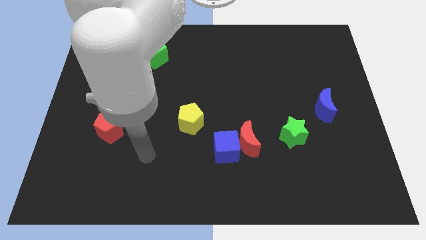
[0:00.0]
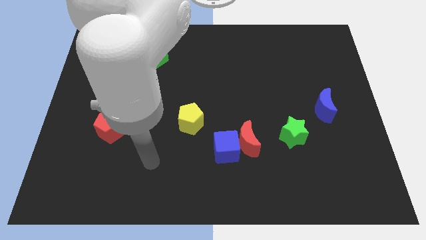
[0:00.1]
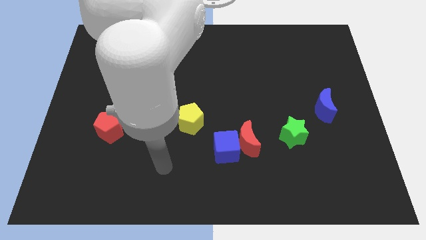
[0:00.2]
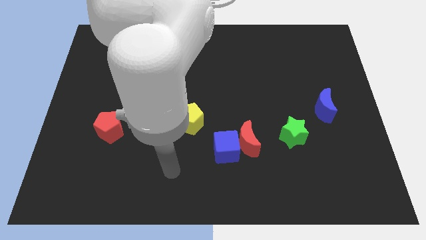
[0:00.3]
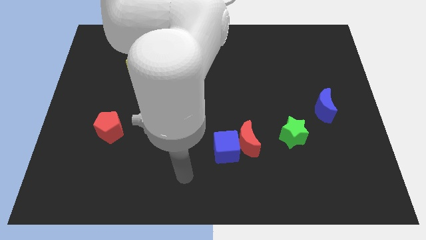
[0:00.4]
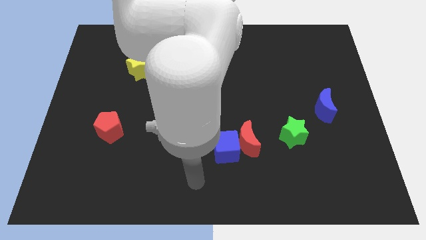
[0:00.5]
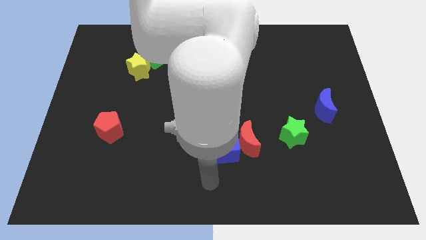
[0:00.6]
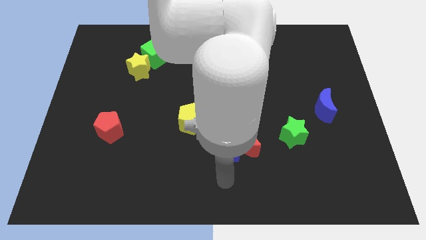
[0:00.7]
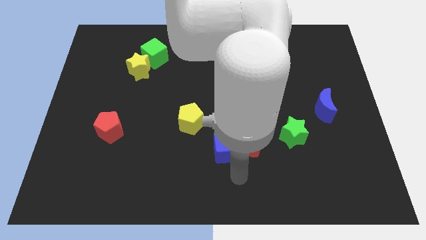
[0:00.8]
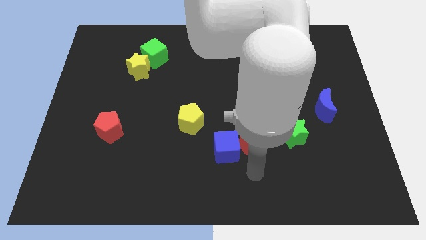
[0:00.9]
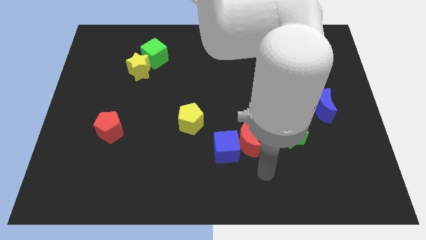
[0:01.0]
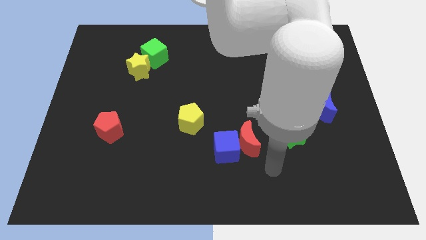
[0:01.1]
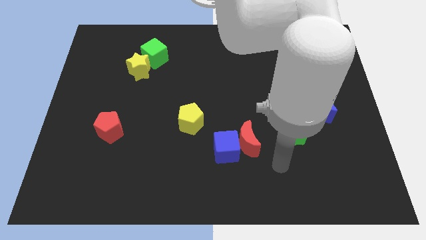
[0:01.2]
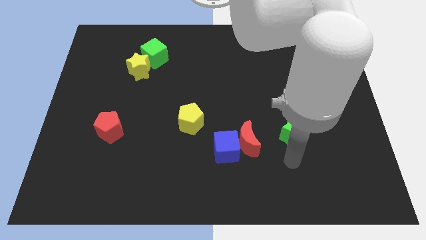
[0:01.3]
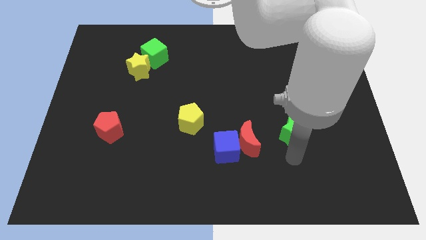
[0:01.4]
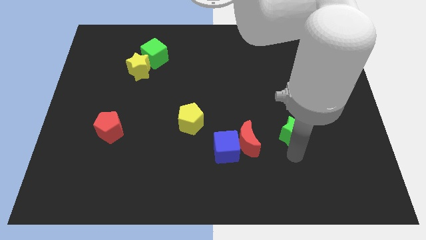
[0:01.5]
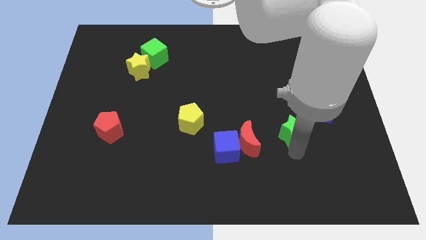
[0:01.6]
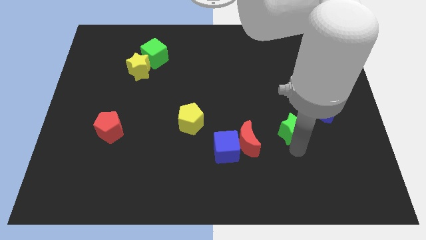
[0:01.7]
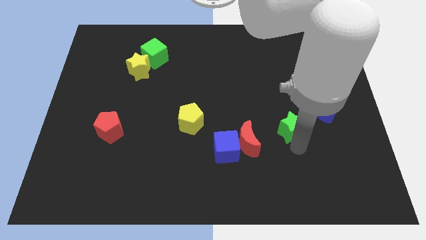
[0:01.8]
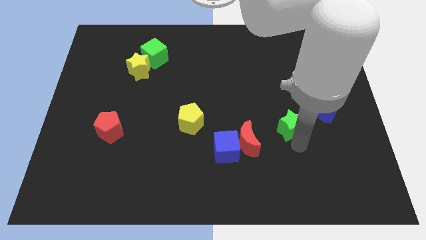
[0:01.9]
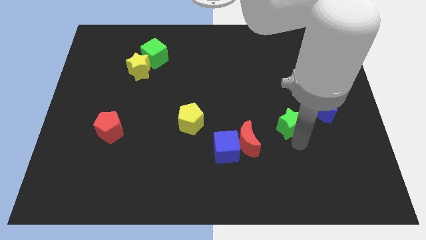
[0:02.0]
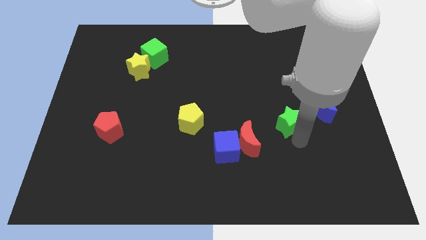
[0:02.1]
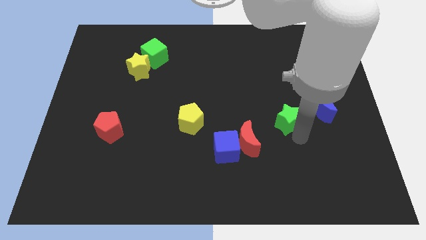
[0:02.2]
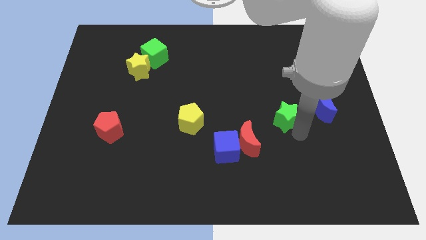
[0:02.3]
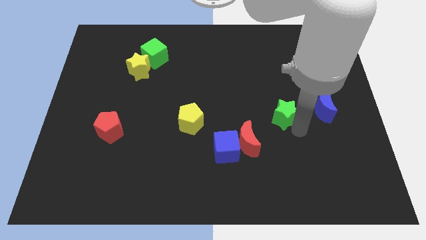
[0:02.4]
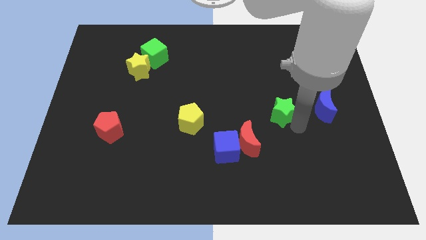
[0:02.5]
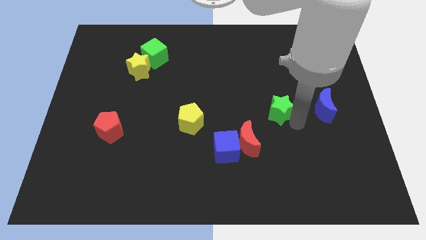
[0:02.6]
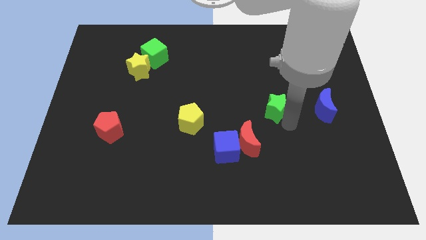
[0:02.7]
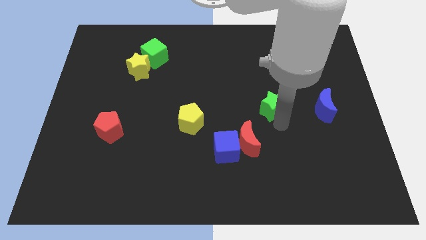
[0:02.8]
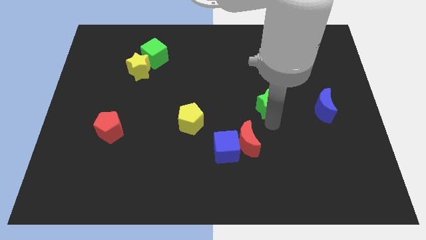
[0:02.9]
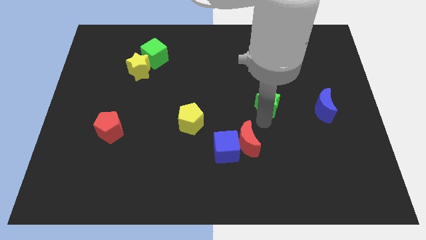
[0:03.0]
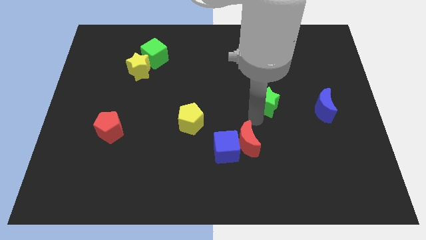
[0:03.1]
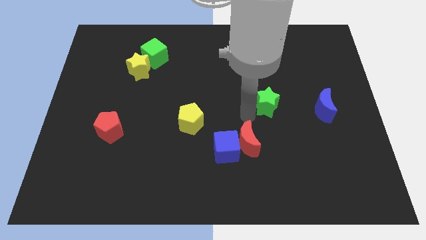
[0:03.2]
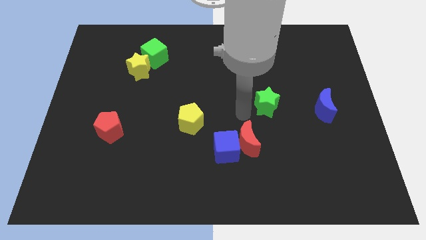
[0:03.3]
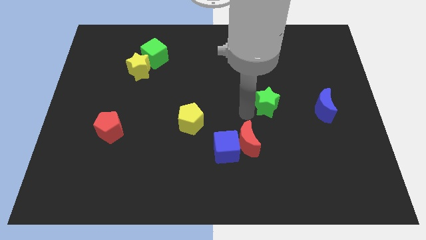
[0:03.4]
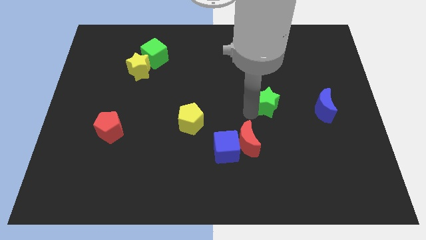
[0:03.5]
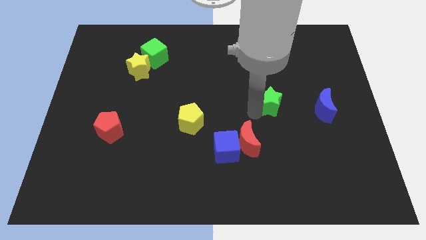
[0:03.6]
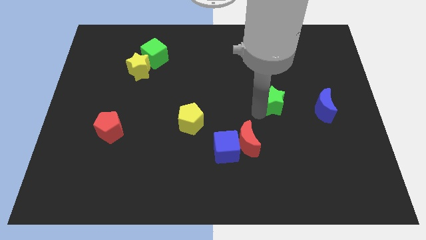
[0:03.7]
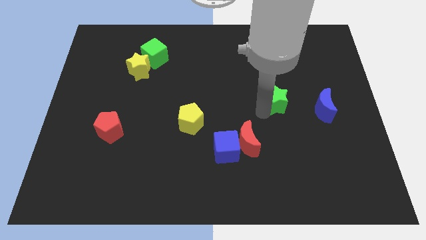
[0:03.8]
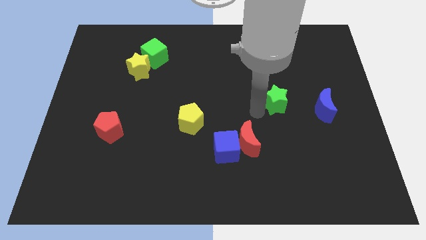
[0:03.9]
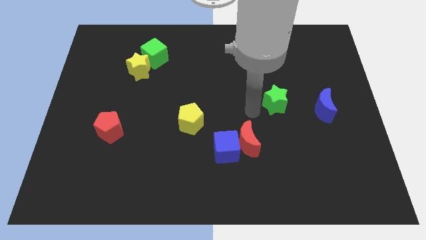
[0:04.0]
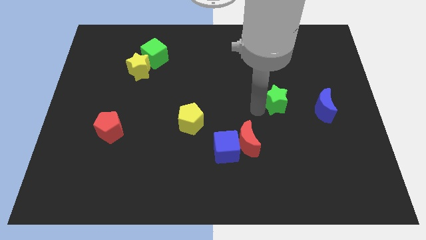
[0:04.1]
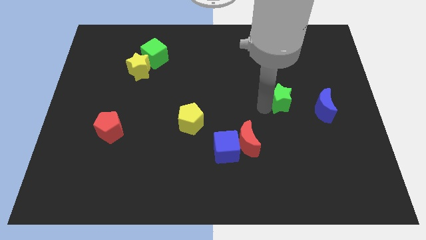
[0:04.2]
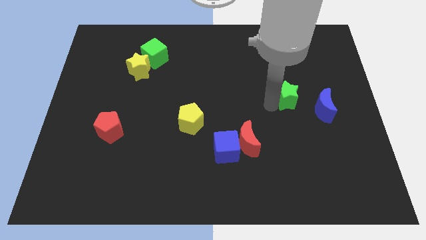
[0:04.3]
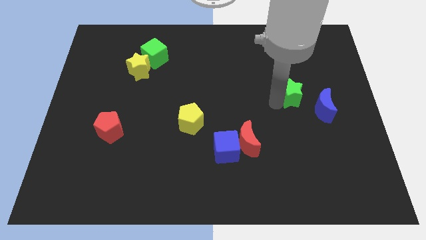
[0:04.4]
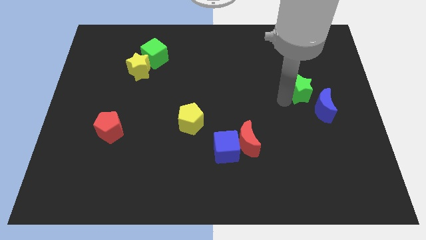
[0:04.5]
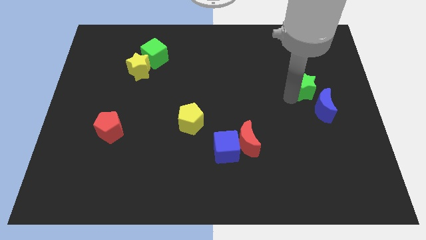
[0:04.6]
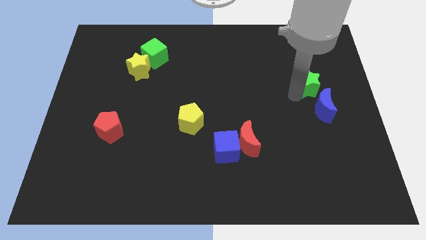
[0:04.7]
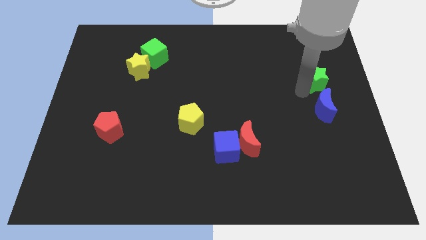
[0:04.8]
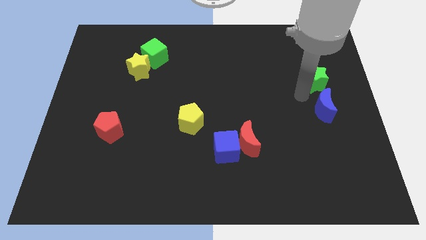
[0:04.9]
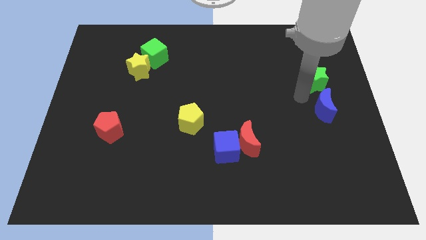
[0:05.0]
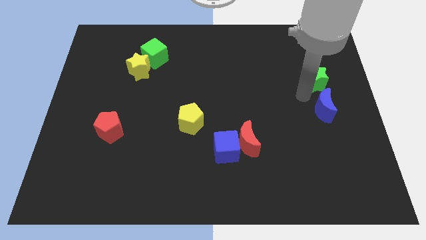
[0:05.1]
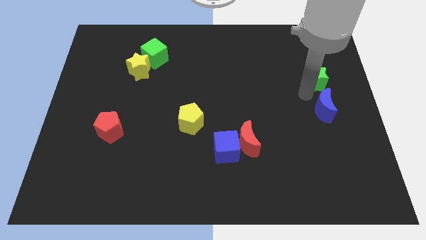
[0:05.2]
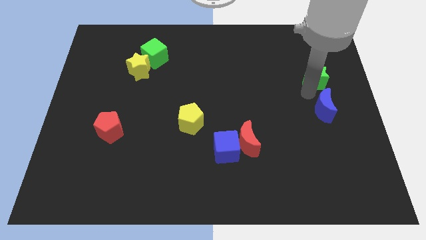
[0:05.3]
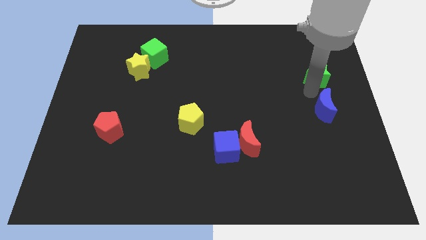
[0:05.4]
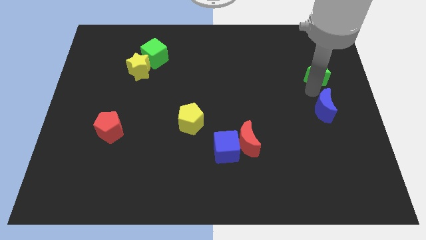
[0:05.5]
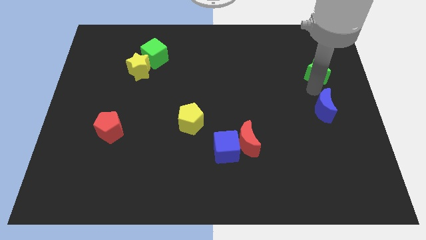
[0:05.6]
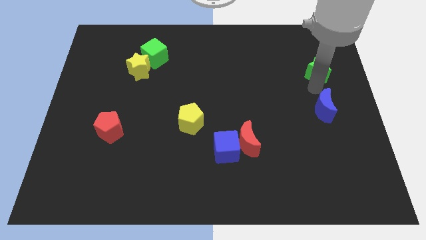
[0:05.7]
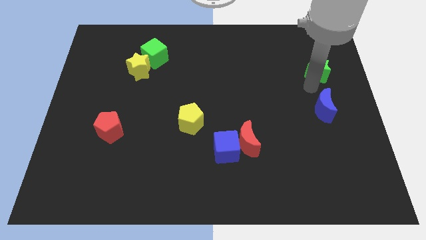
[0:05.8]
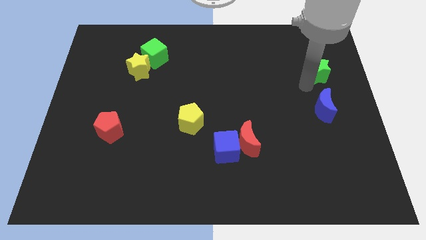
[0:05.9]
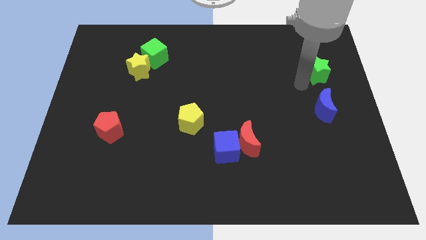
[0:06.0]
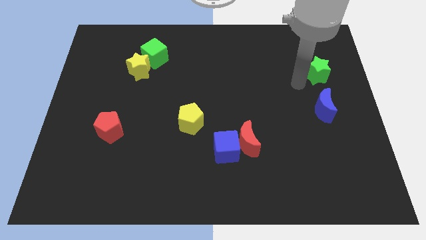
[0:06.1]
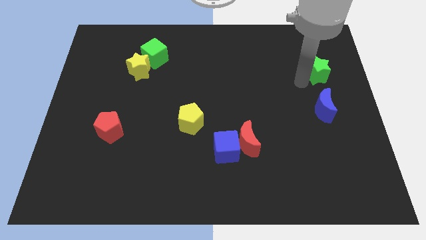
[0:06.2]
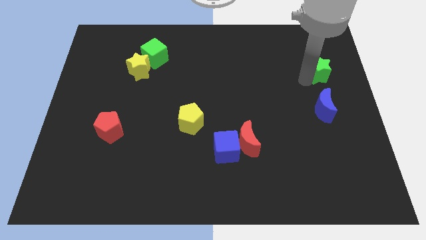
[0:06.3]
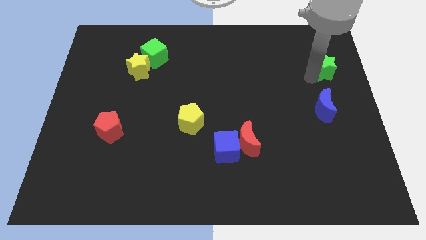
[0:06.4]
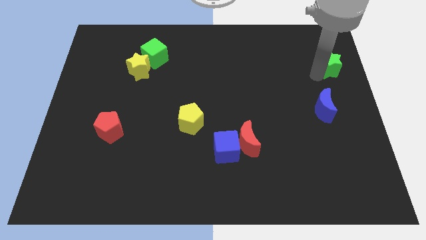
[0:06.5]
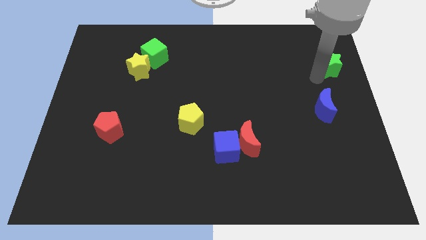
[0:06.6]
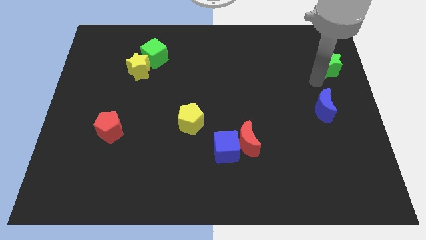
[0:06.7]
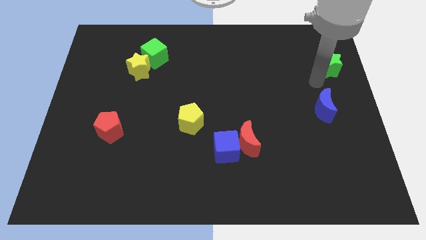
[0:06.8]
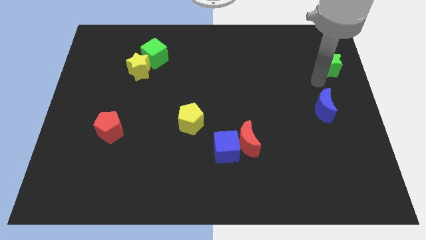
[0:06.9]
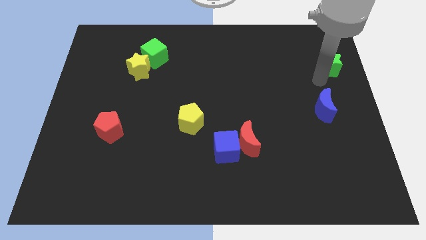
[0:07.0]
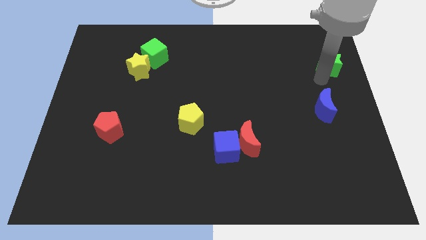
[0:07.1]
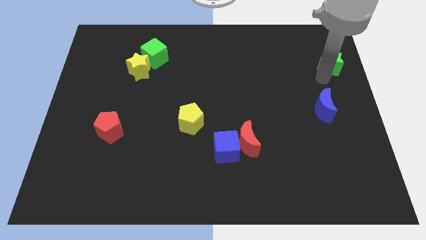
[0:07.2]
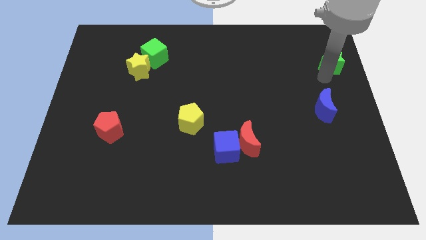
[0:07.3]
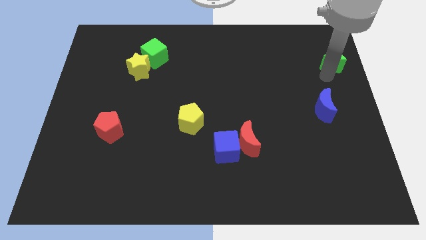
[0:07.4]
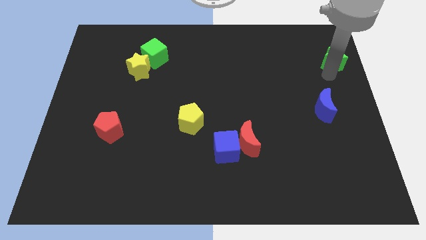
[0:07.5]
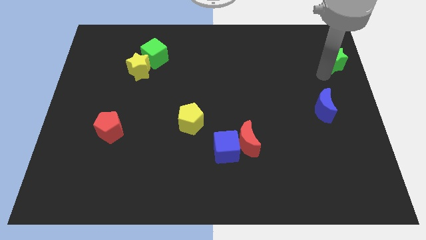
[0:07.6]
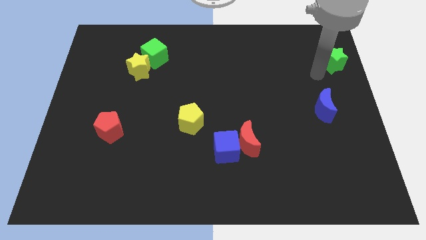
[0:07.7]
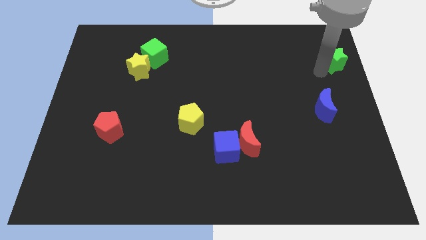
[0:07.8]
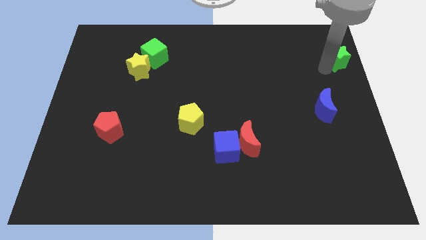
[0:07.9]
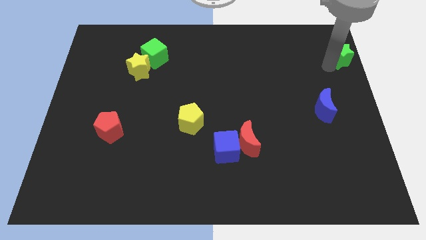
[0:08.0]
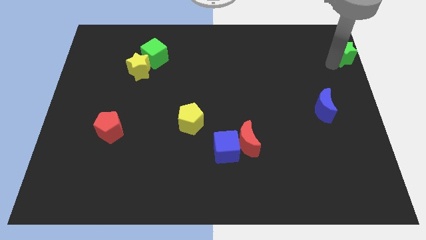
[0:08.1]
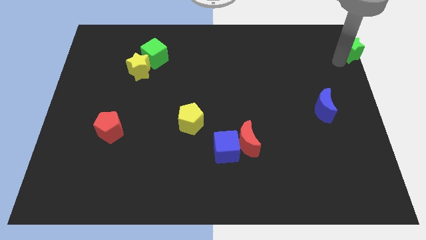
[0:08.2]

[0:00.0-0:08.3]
move the green star to the top right of the board
